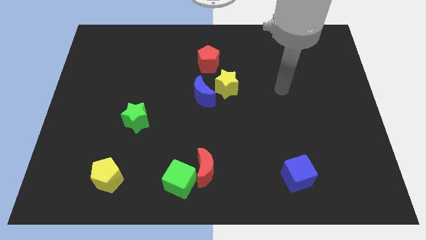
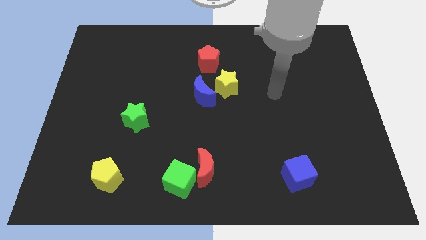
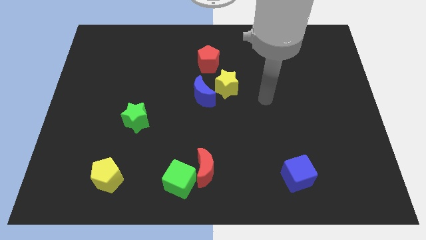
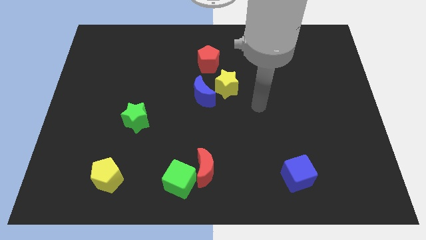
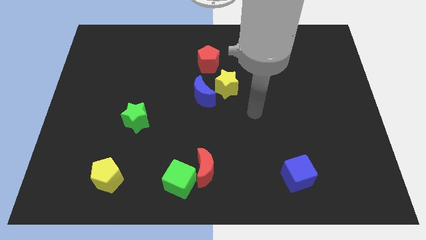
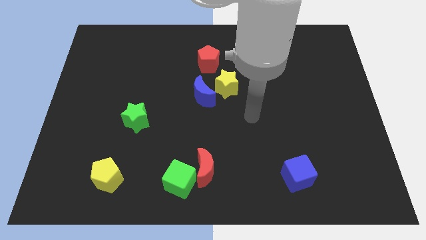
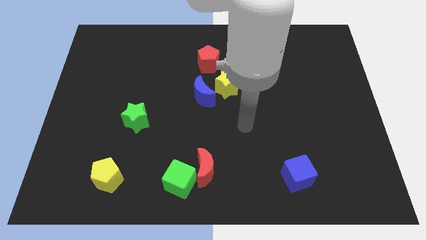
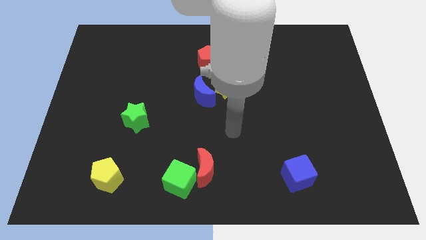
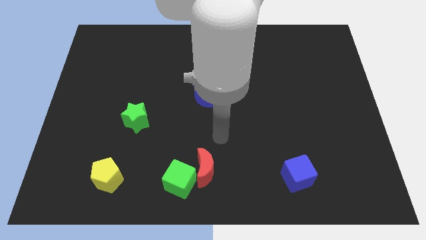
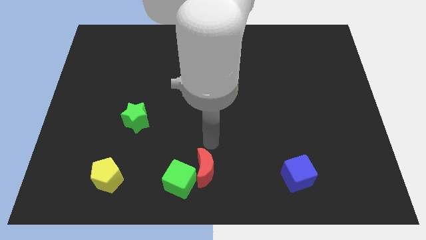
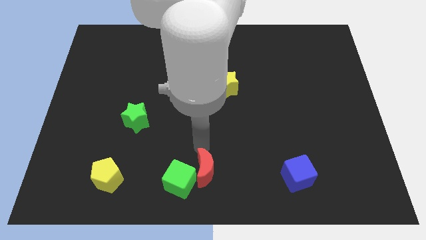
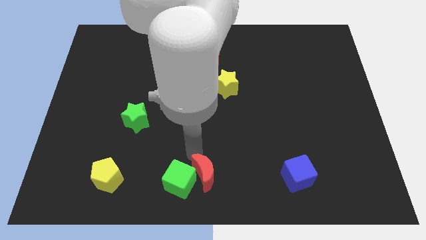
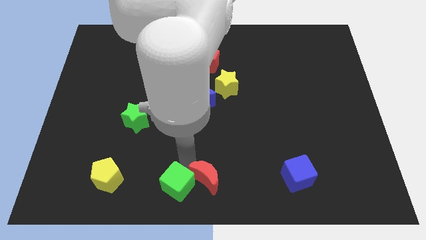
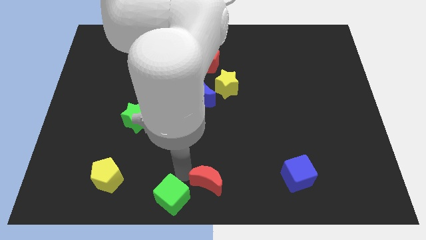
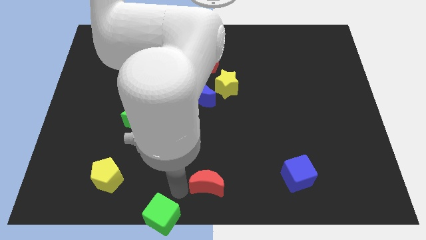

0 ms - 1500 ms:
move the red moon away from the green cube

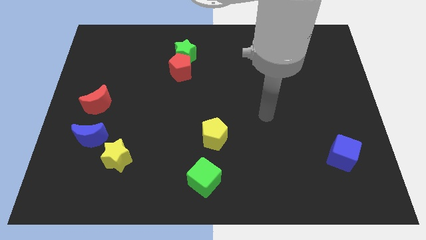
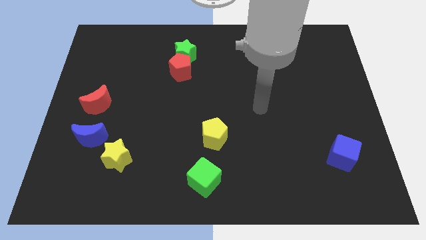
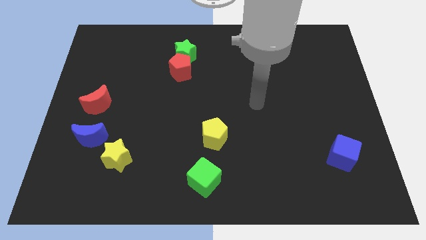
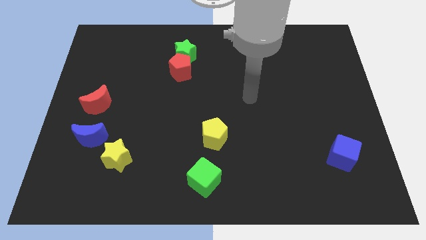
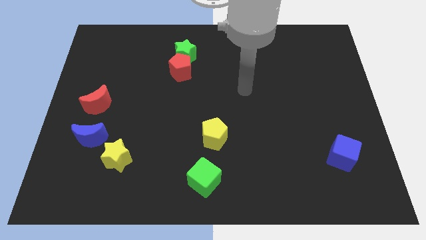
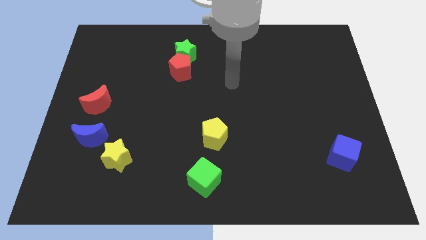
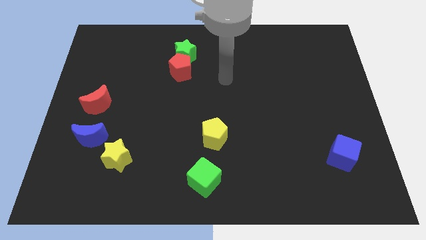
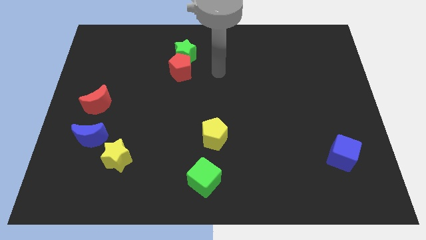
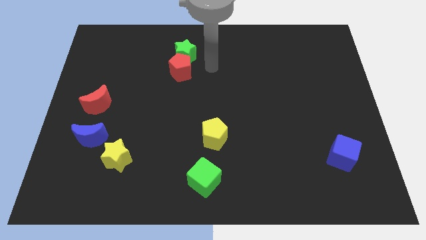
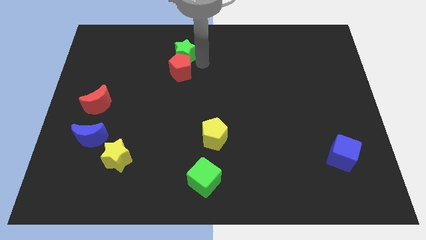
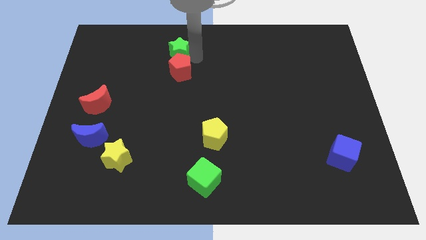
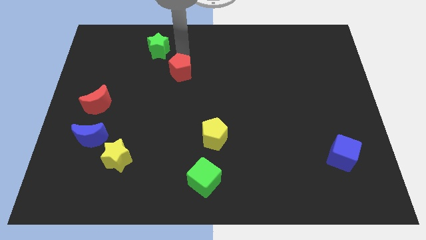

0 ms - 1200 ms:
pull the red pentagon apart from the green star

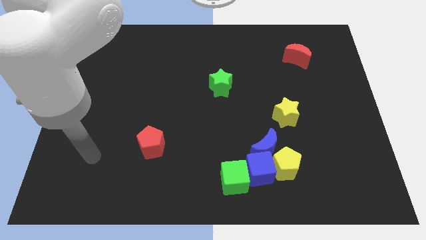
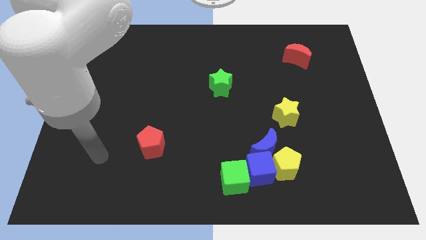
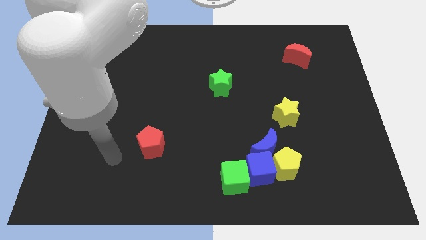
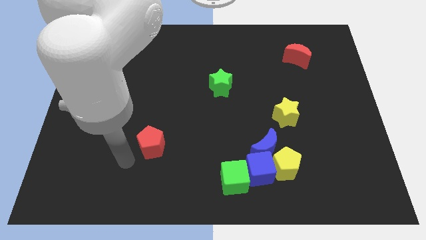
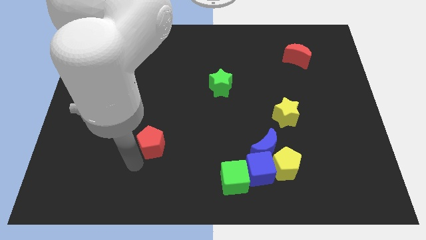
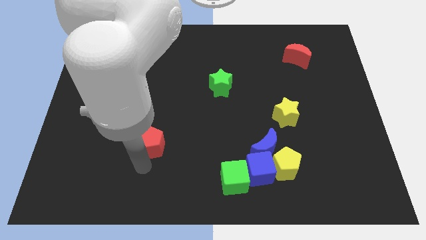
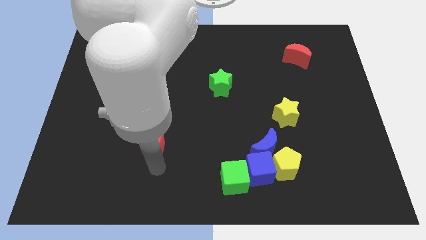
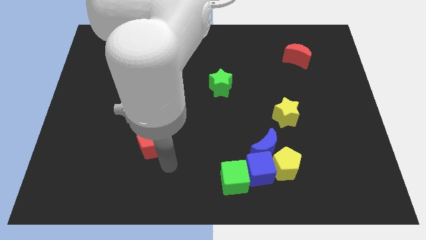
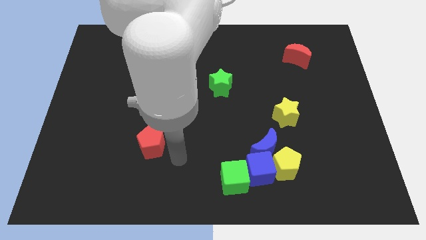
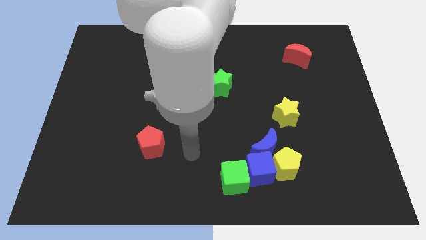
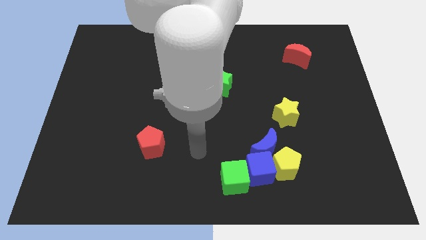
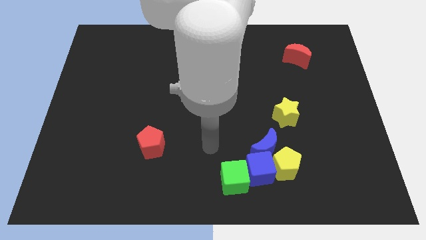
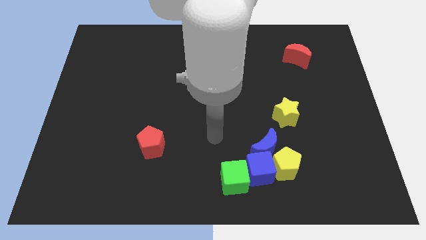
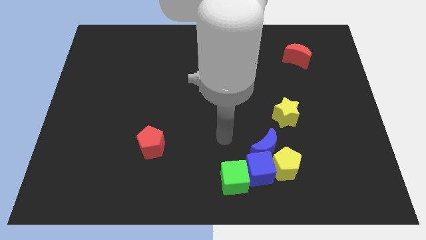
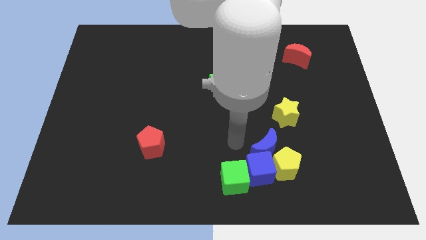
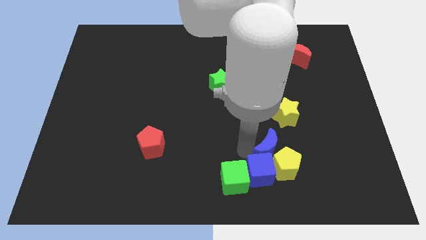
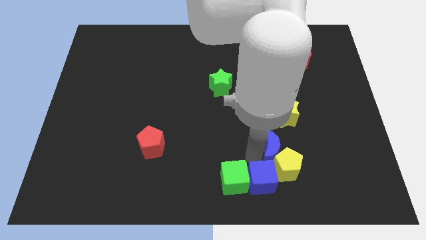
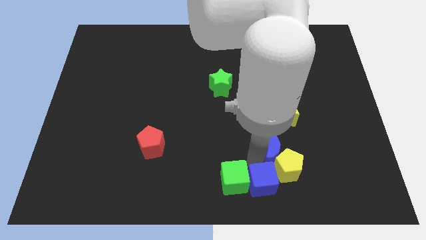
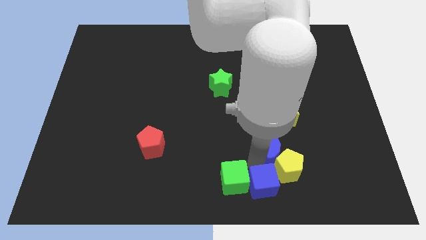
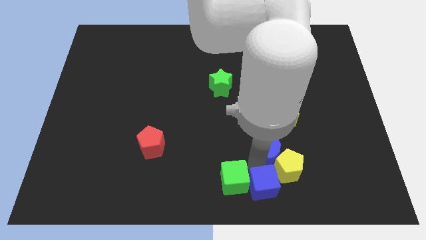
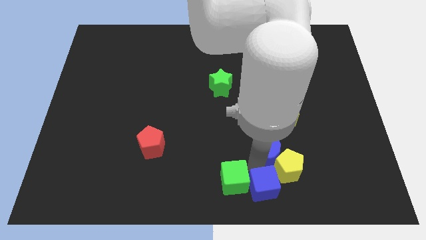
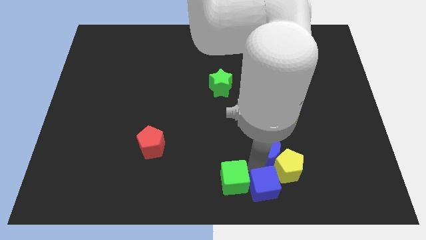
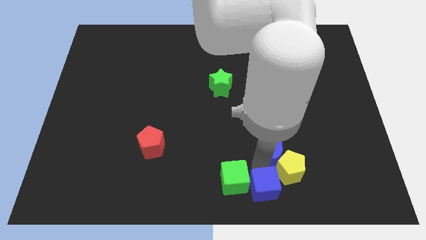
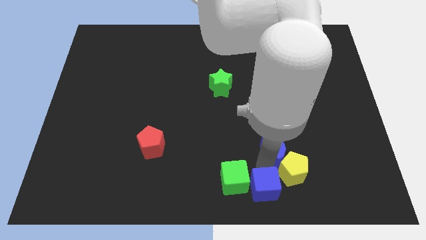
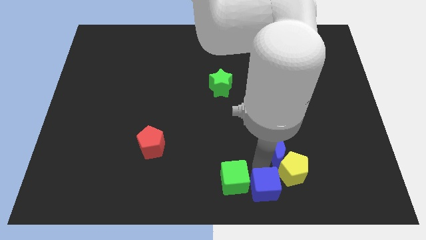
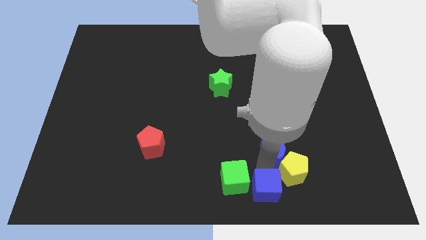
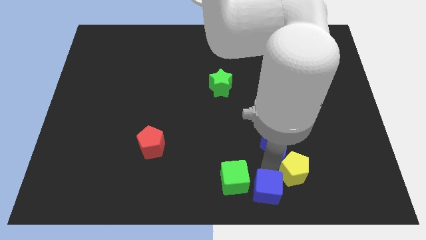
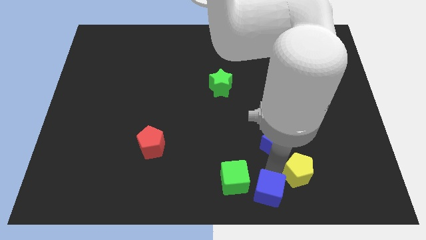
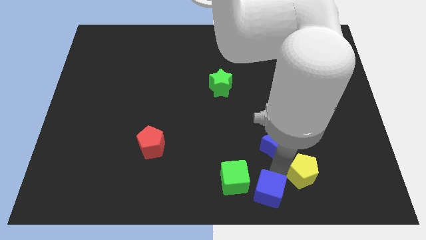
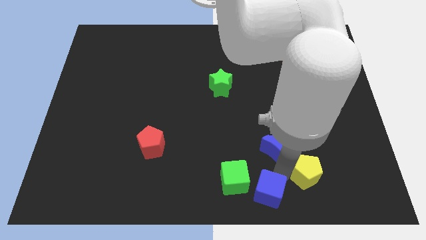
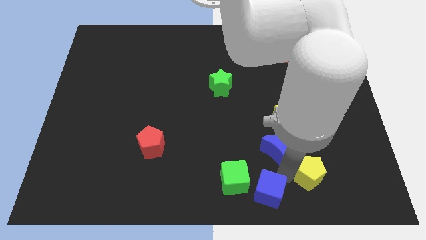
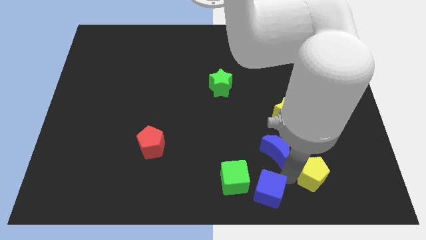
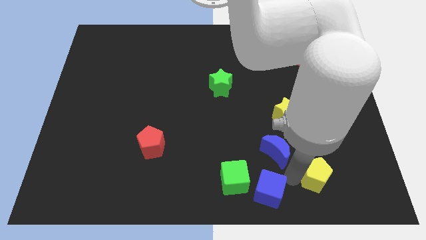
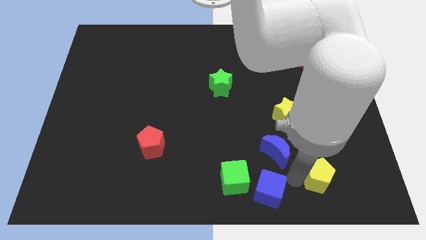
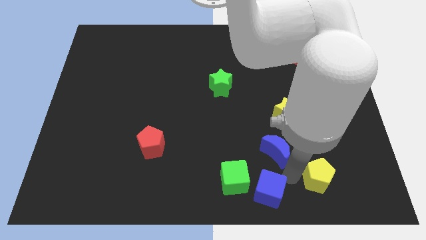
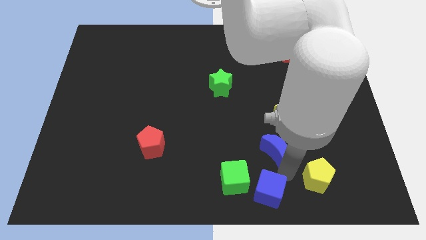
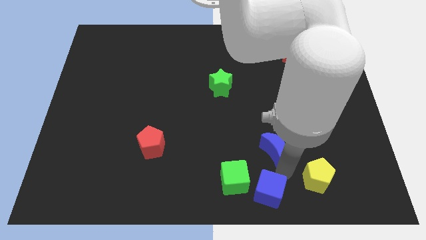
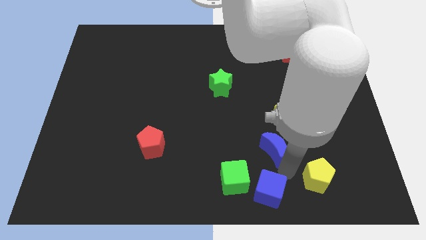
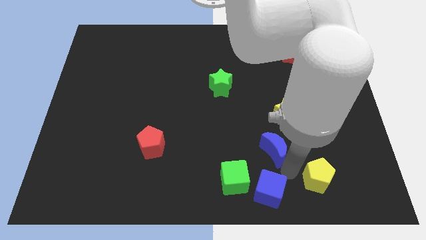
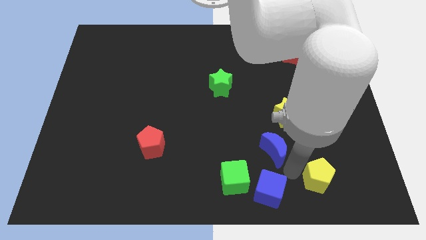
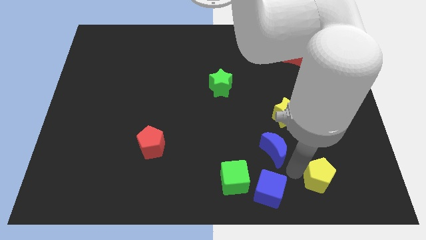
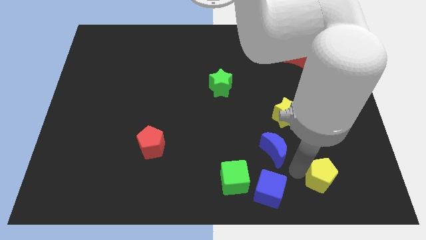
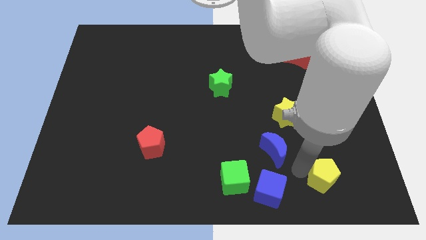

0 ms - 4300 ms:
pull the yellow pentagon apart from the blue moon and blue cube

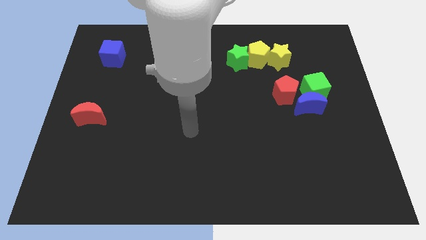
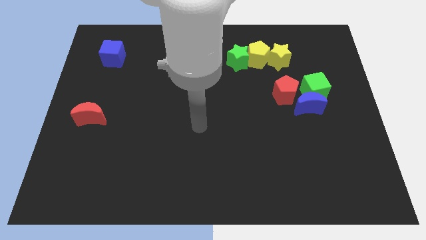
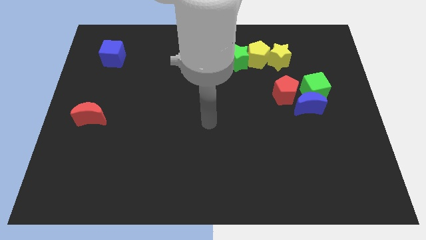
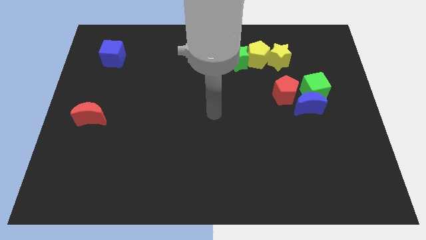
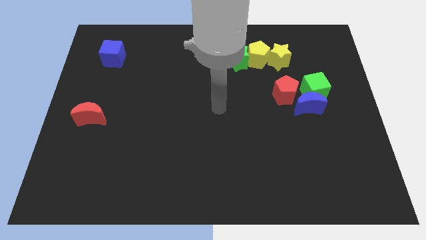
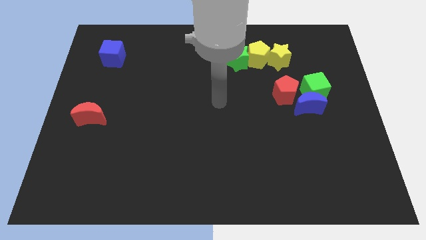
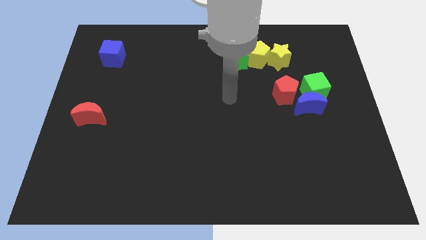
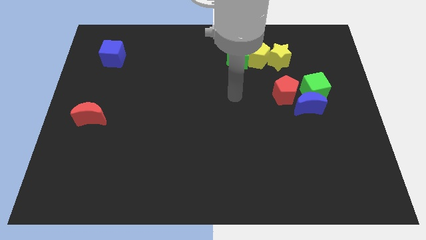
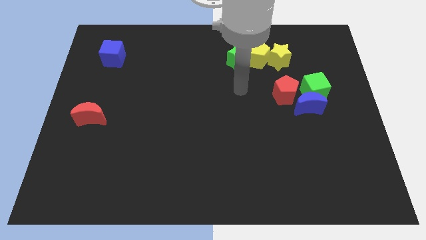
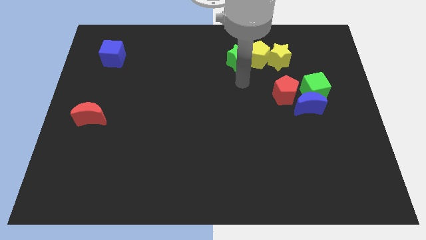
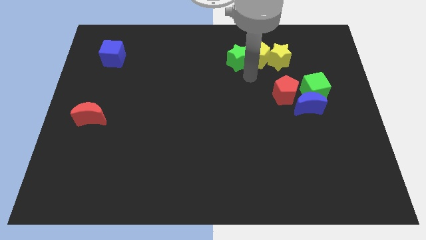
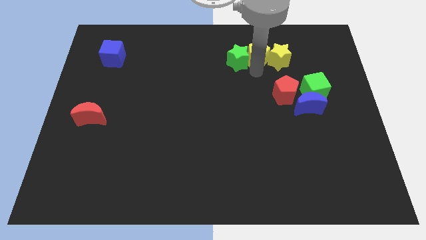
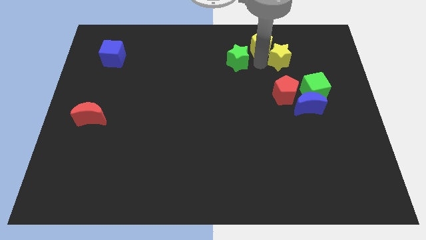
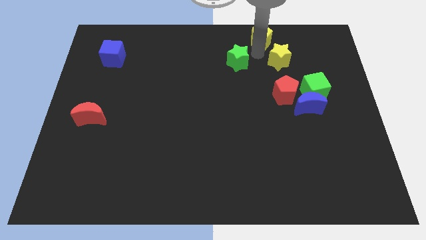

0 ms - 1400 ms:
separate the green star from the yellow pentagon

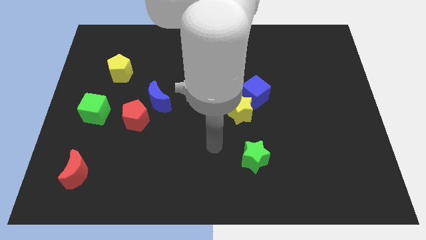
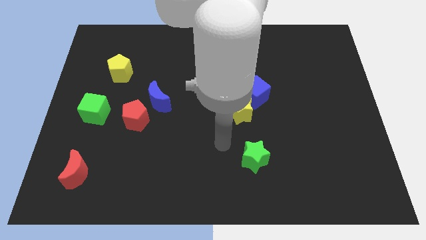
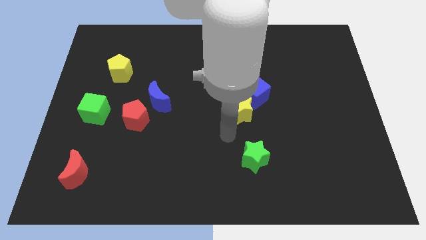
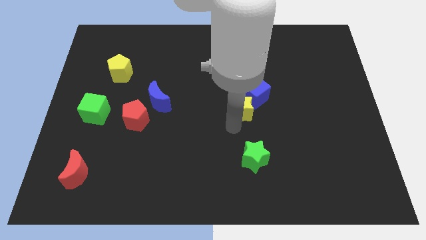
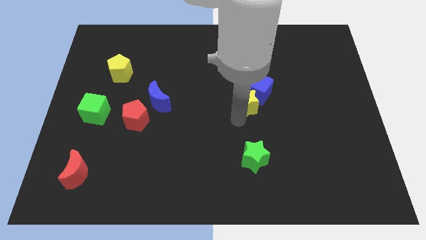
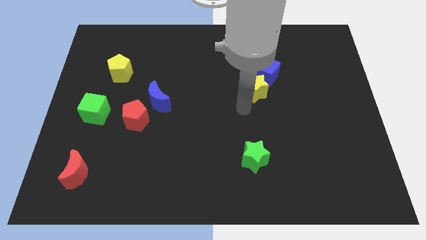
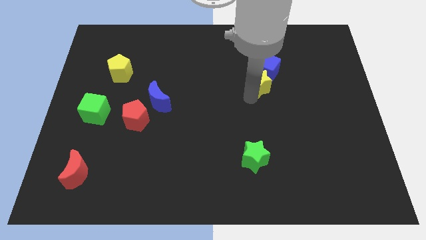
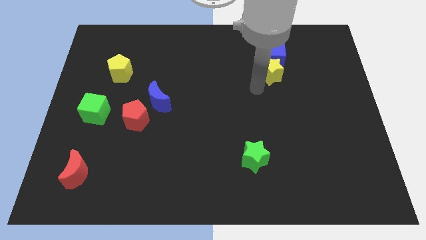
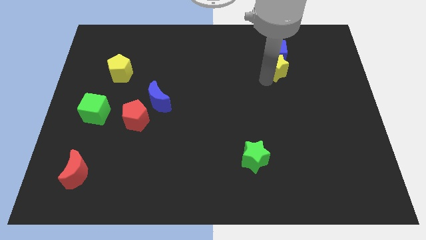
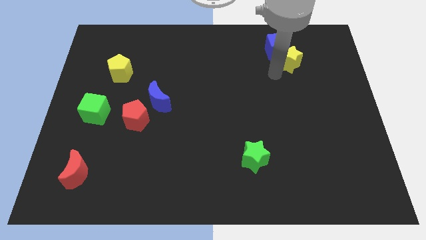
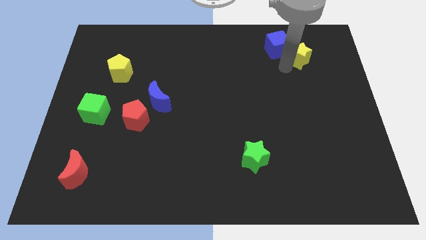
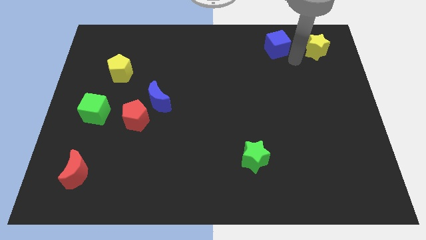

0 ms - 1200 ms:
separate the blue cube from the yellow star
